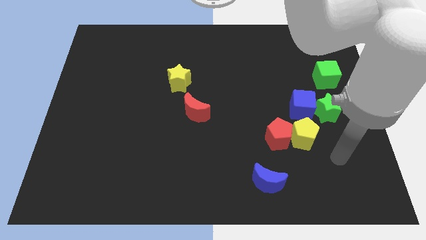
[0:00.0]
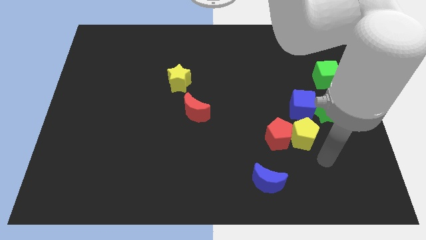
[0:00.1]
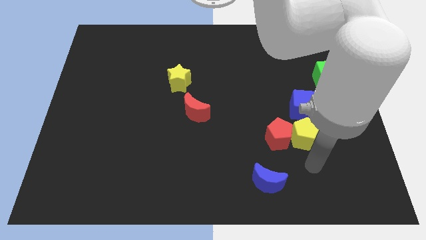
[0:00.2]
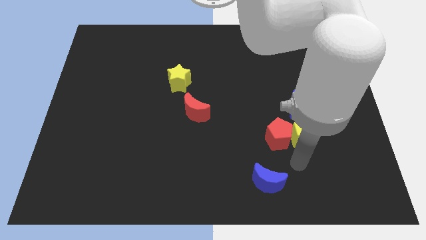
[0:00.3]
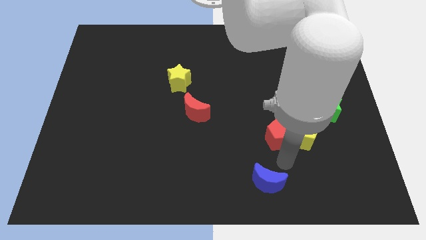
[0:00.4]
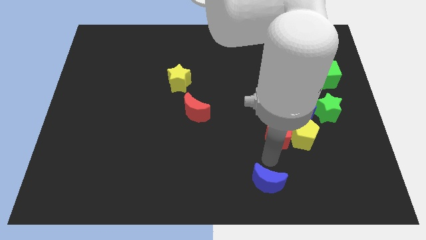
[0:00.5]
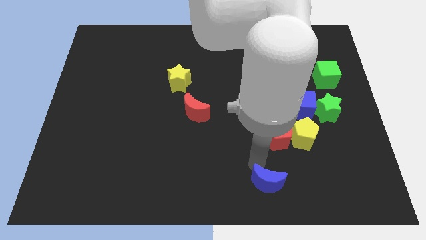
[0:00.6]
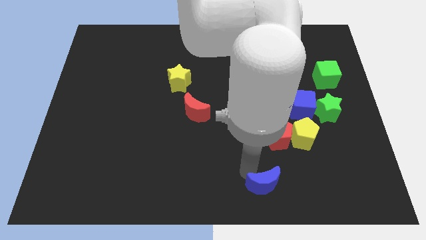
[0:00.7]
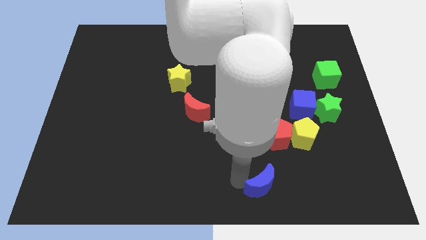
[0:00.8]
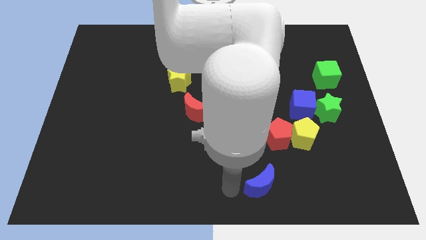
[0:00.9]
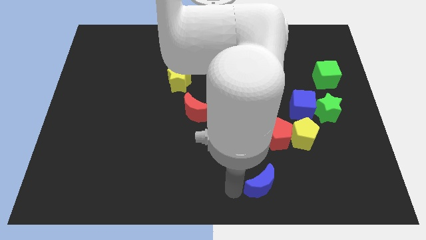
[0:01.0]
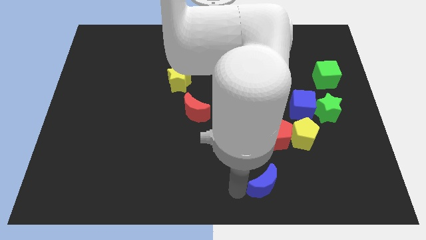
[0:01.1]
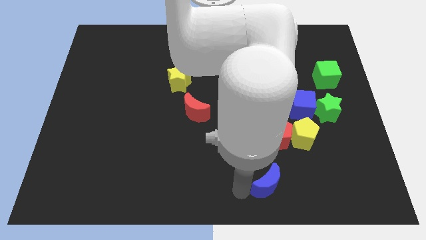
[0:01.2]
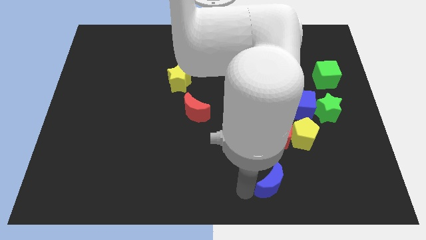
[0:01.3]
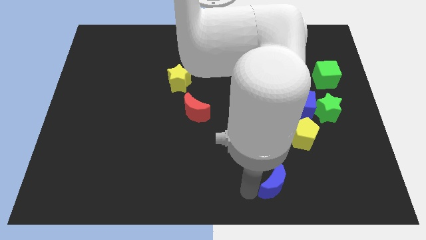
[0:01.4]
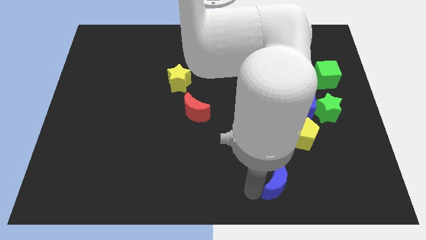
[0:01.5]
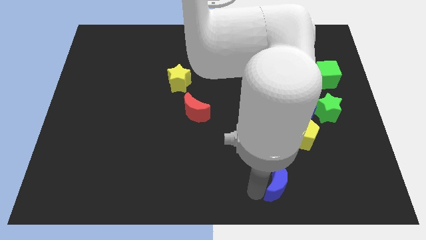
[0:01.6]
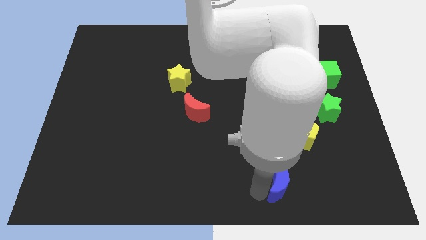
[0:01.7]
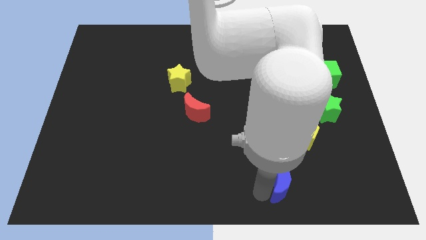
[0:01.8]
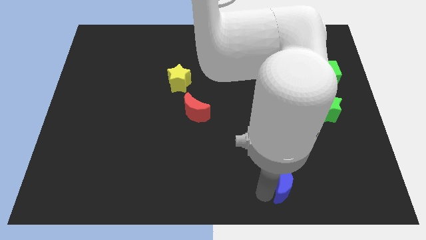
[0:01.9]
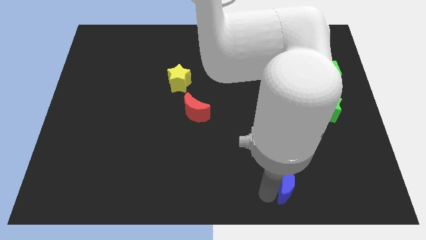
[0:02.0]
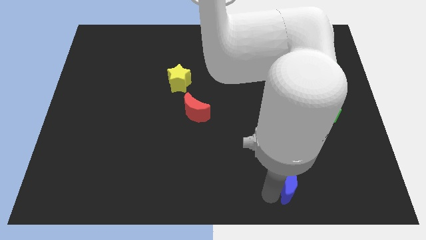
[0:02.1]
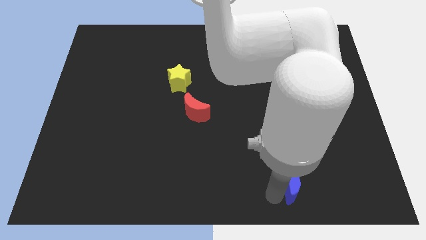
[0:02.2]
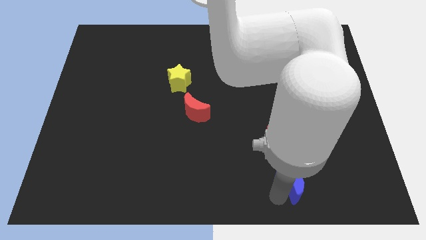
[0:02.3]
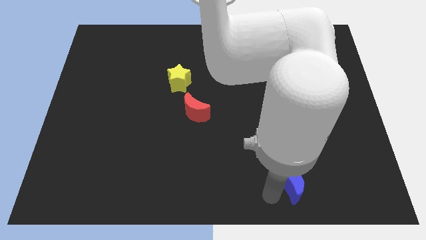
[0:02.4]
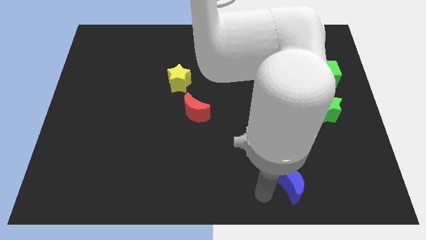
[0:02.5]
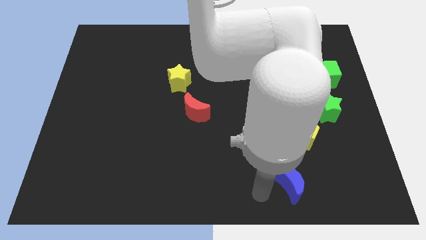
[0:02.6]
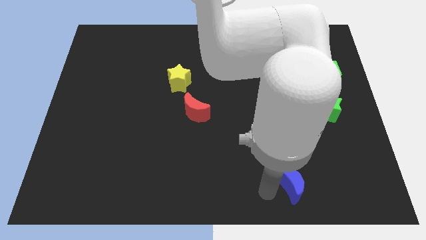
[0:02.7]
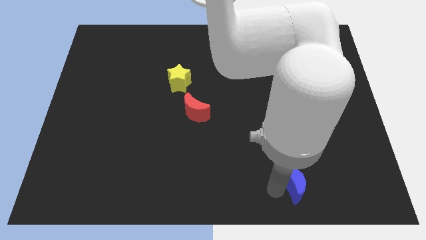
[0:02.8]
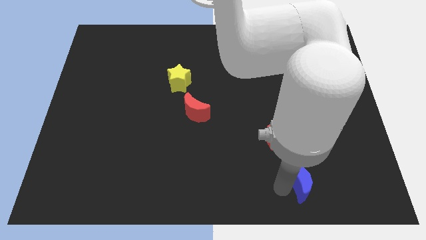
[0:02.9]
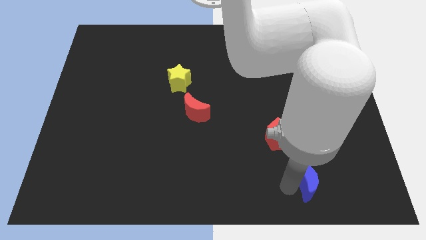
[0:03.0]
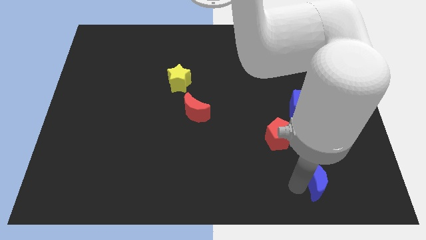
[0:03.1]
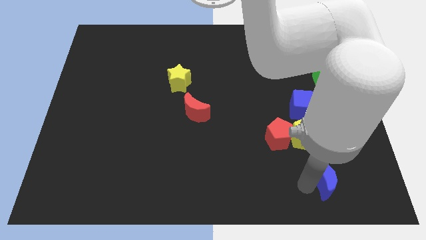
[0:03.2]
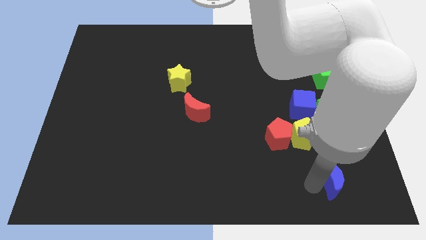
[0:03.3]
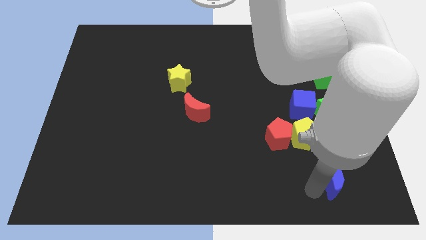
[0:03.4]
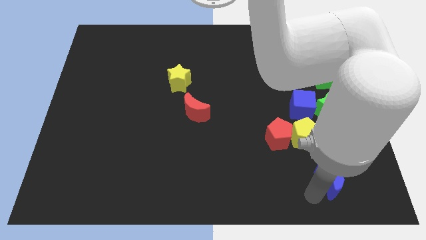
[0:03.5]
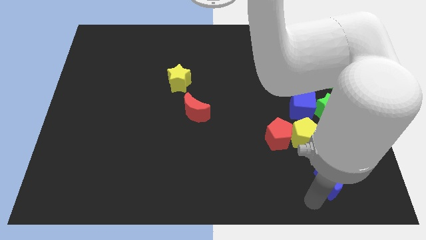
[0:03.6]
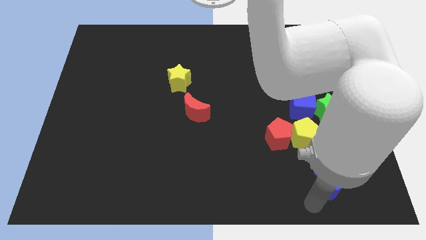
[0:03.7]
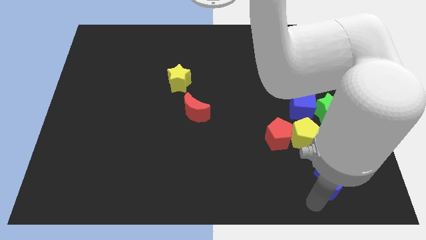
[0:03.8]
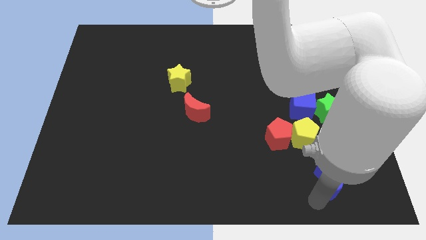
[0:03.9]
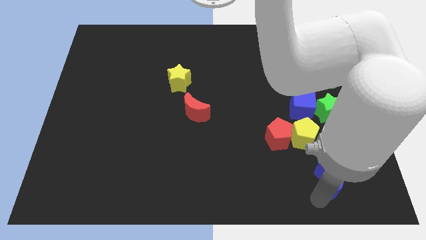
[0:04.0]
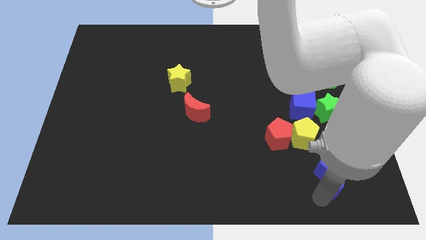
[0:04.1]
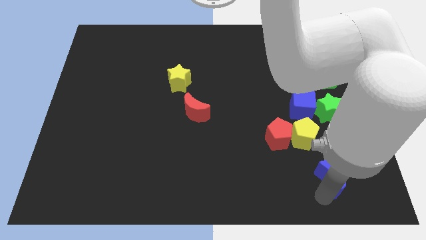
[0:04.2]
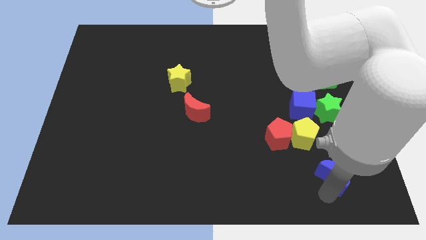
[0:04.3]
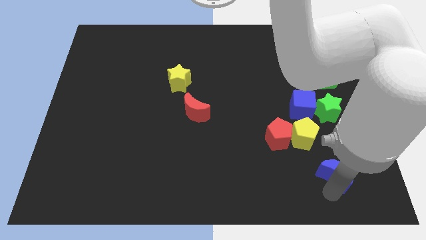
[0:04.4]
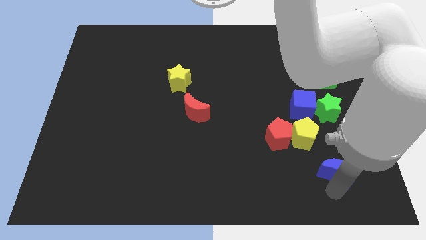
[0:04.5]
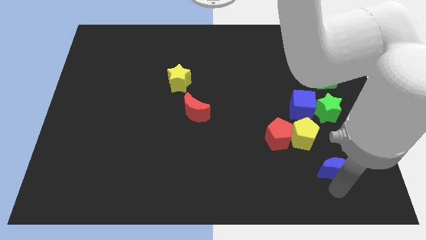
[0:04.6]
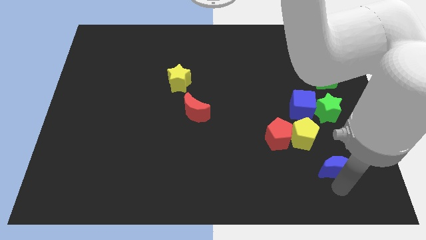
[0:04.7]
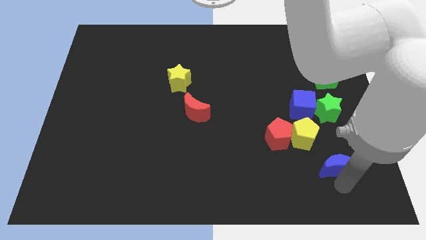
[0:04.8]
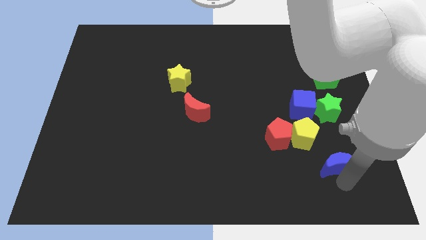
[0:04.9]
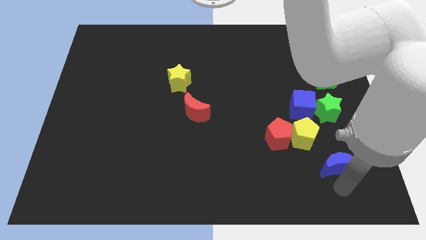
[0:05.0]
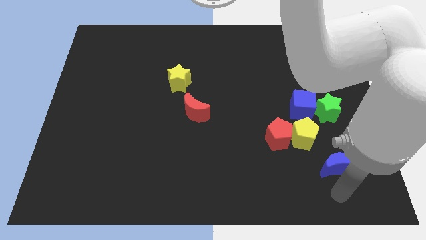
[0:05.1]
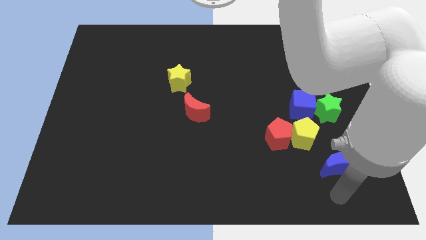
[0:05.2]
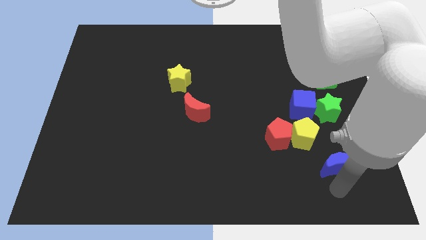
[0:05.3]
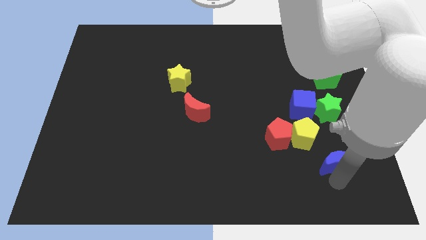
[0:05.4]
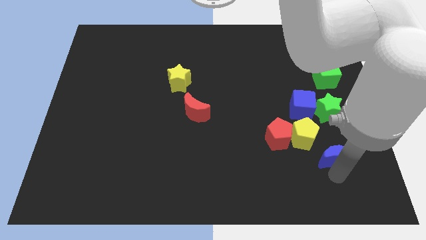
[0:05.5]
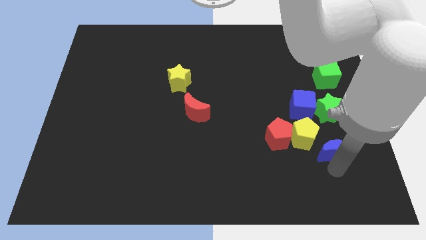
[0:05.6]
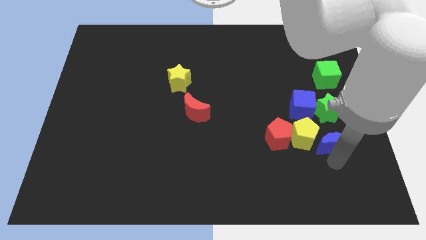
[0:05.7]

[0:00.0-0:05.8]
slide the blue moon to the bottom right of the blue cube

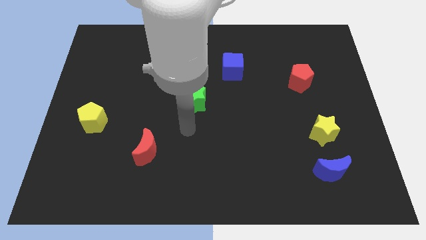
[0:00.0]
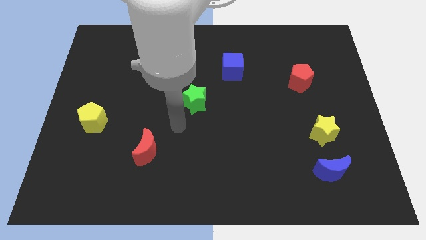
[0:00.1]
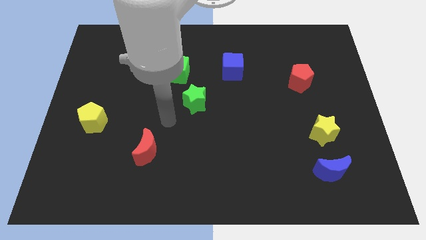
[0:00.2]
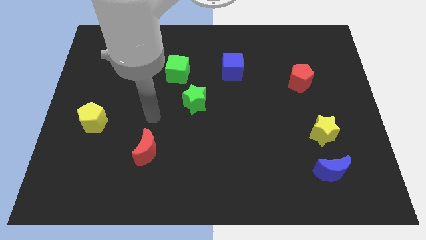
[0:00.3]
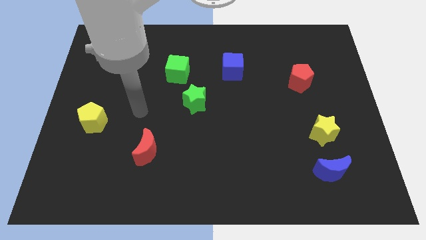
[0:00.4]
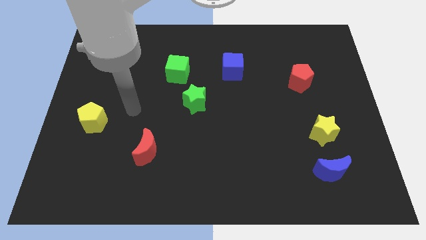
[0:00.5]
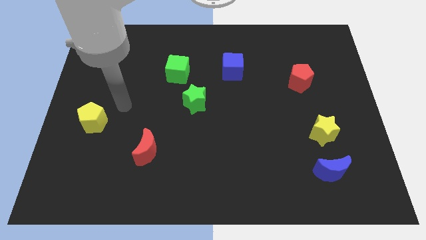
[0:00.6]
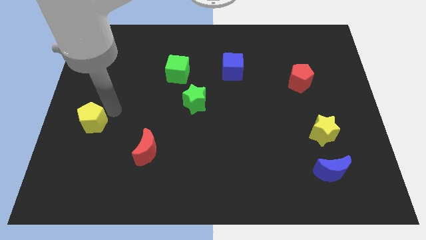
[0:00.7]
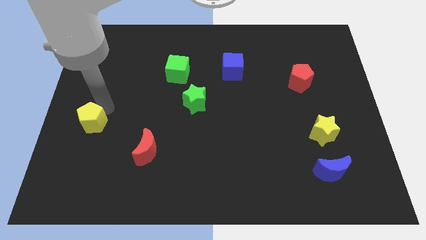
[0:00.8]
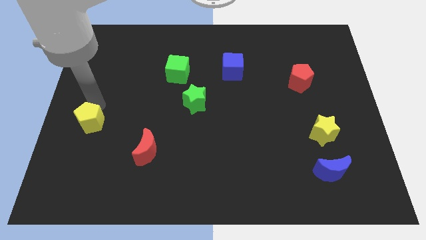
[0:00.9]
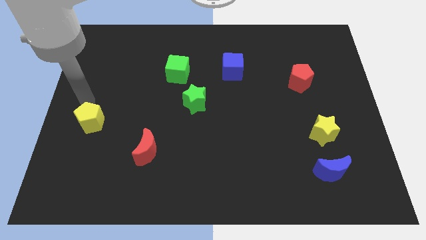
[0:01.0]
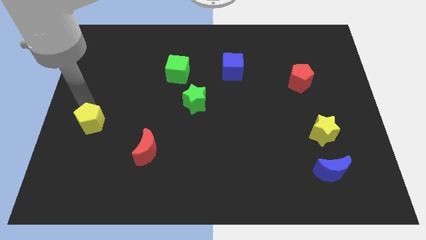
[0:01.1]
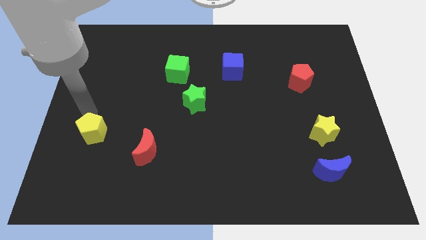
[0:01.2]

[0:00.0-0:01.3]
push the yellow pentagon left of the red moon

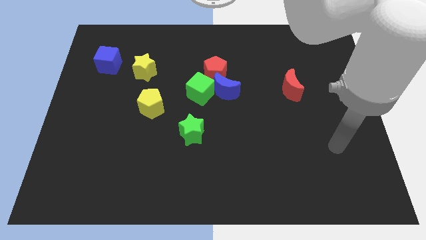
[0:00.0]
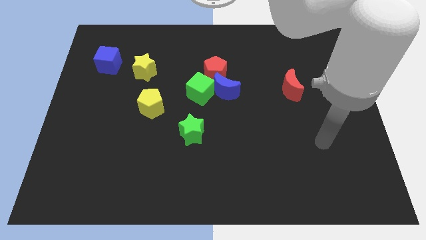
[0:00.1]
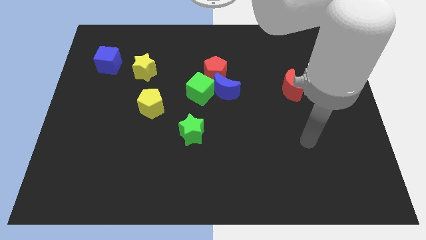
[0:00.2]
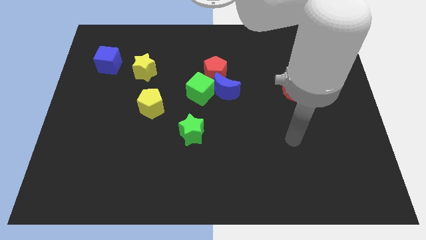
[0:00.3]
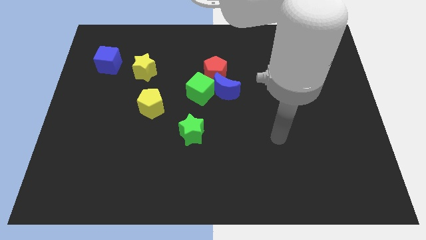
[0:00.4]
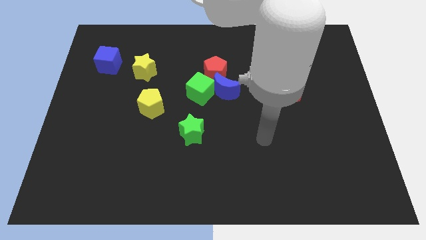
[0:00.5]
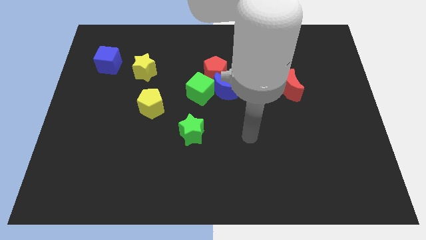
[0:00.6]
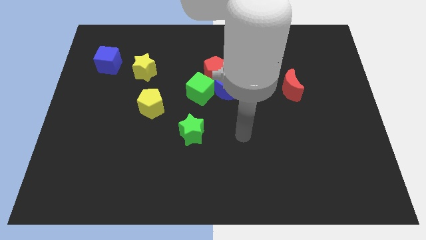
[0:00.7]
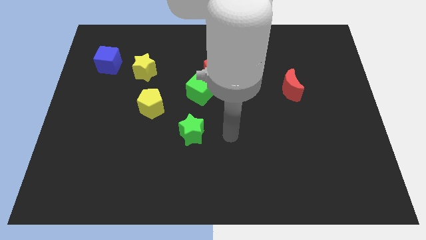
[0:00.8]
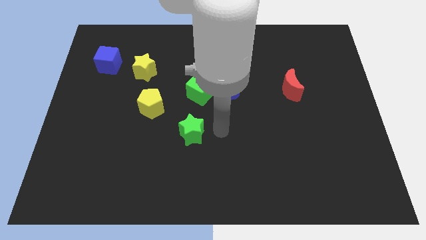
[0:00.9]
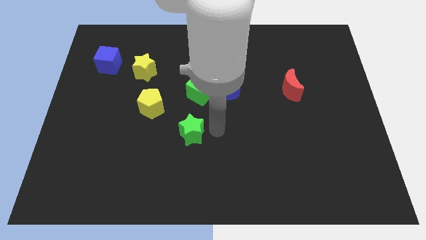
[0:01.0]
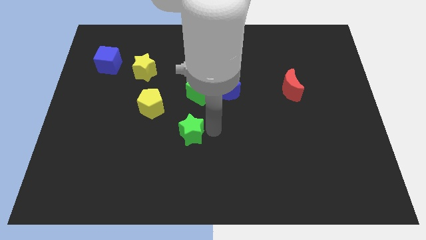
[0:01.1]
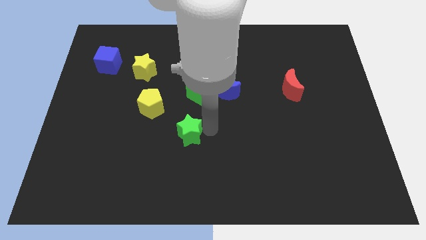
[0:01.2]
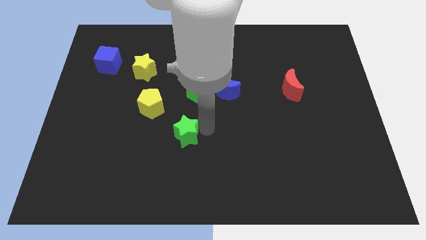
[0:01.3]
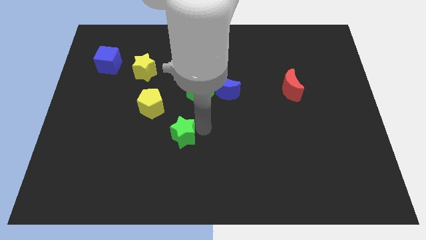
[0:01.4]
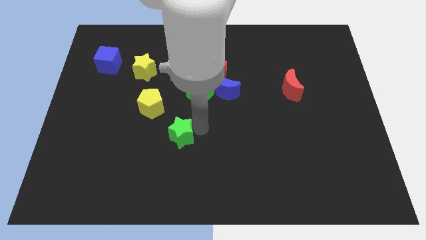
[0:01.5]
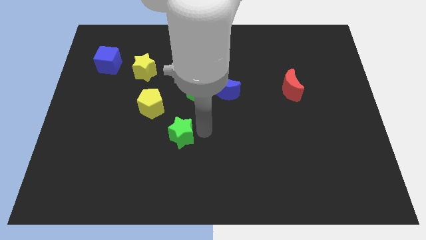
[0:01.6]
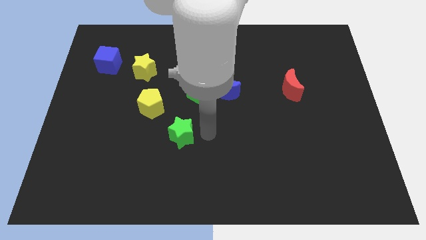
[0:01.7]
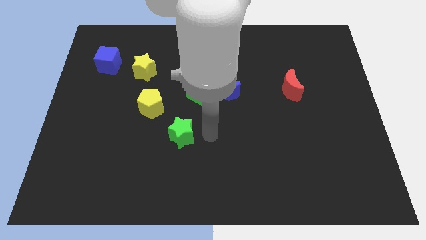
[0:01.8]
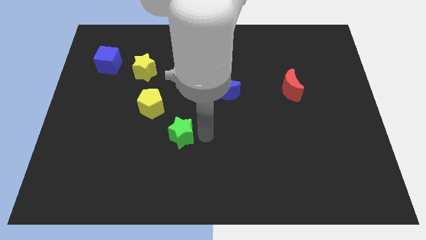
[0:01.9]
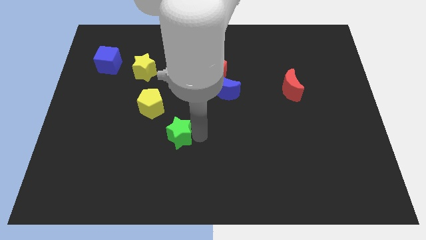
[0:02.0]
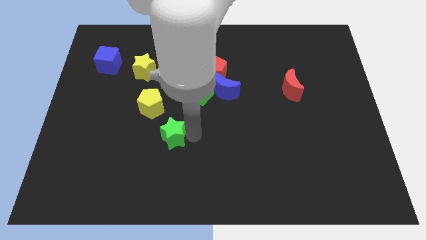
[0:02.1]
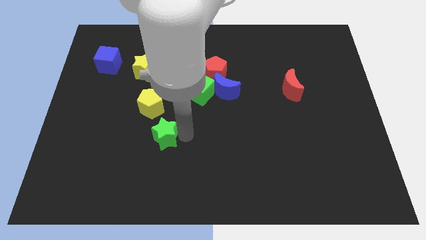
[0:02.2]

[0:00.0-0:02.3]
put the green star to the bottom of the yellow pentagon
